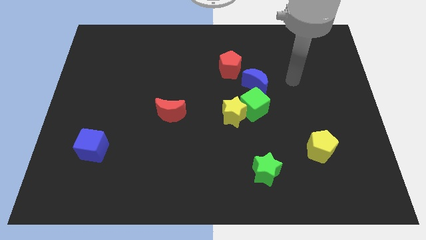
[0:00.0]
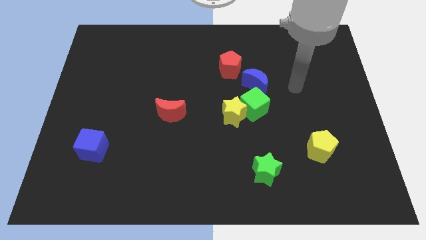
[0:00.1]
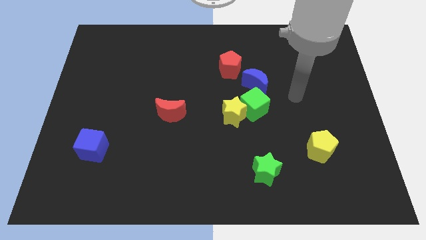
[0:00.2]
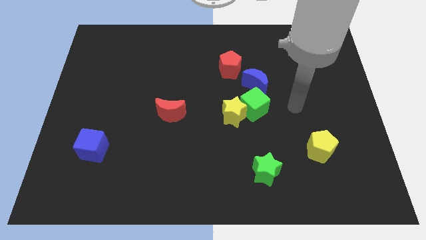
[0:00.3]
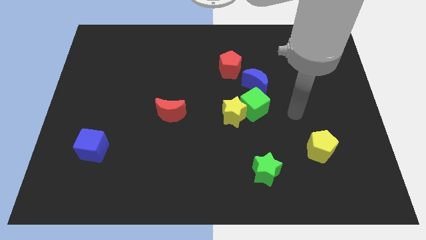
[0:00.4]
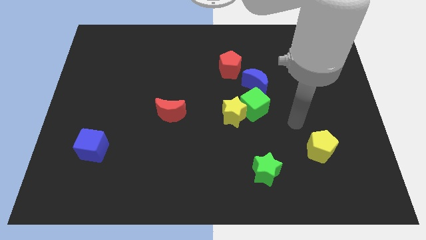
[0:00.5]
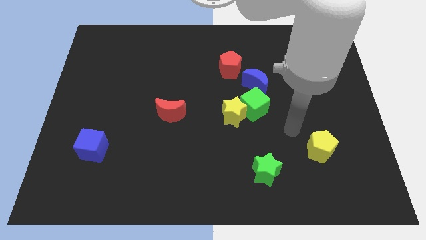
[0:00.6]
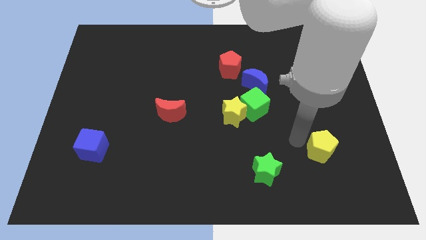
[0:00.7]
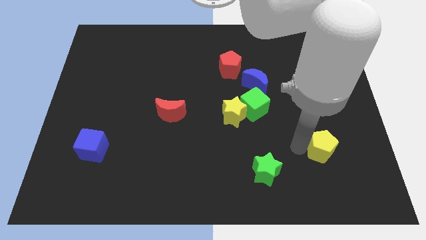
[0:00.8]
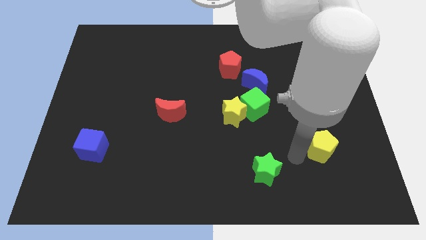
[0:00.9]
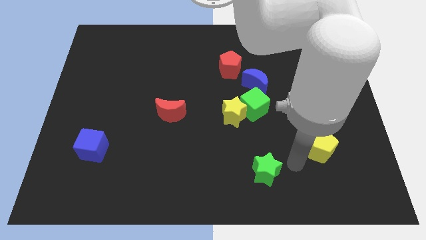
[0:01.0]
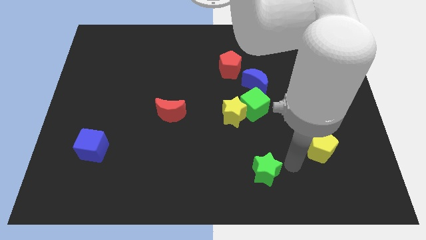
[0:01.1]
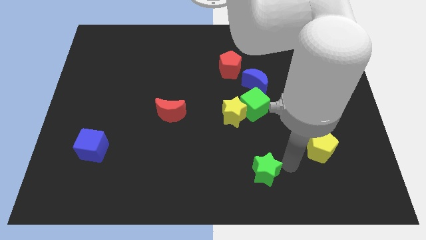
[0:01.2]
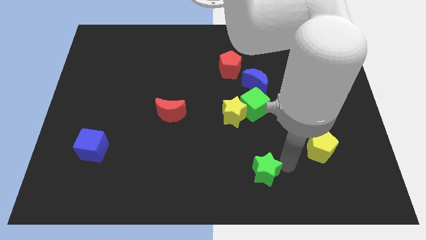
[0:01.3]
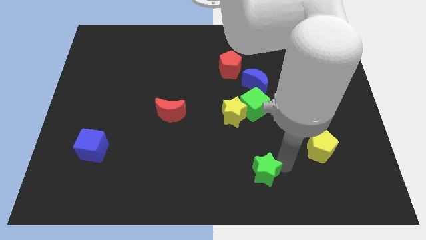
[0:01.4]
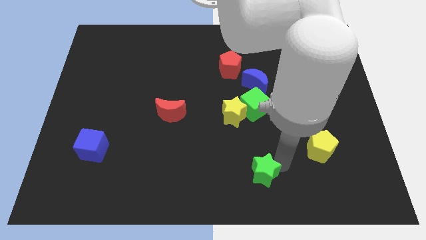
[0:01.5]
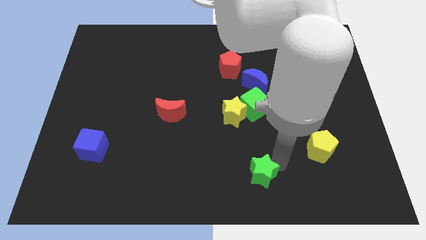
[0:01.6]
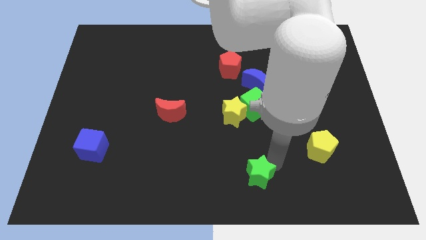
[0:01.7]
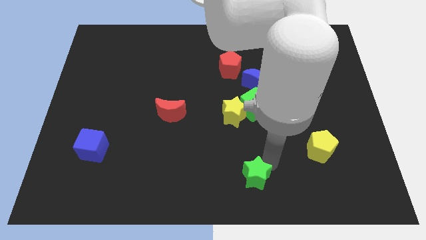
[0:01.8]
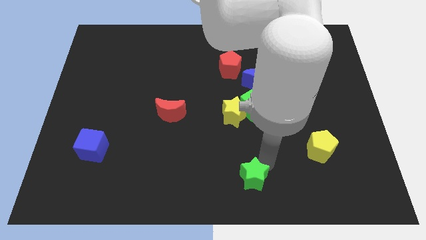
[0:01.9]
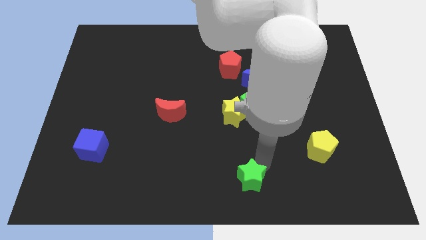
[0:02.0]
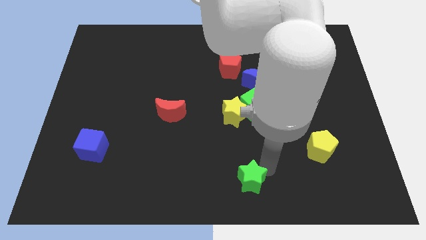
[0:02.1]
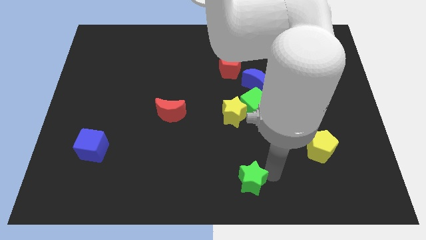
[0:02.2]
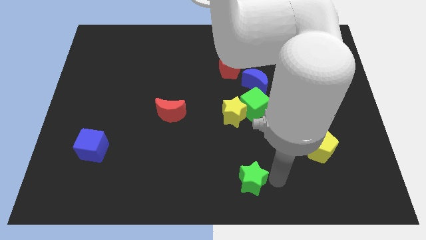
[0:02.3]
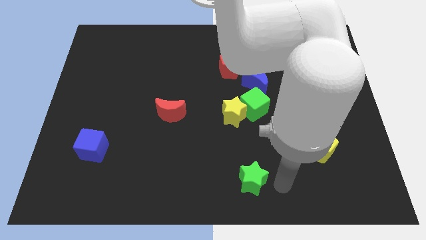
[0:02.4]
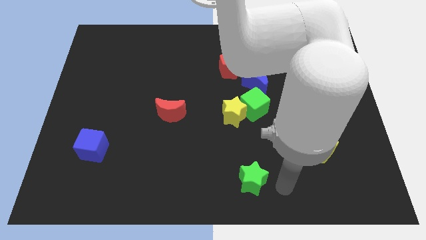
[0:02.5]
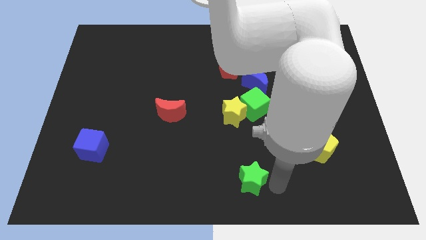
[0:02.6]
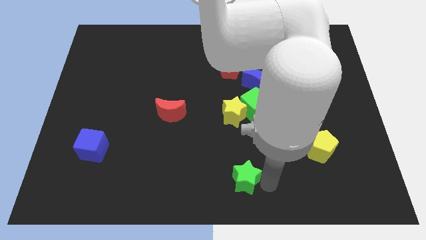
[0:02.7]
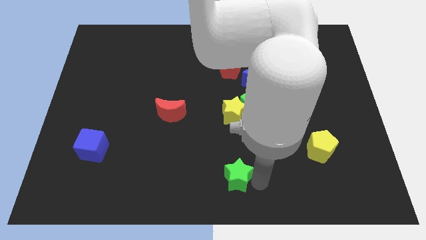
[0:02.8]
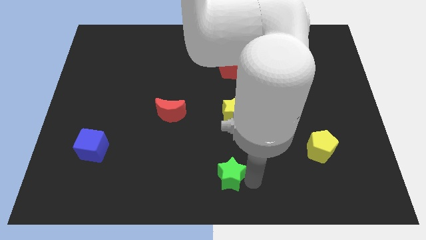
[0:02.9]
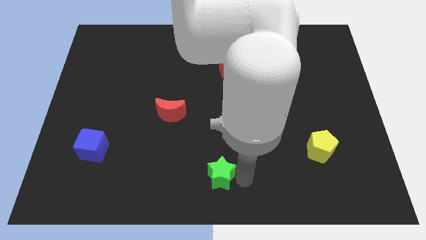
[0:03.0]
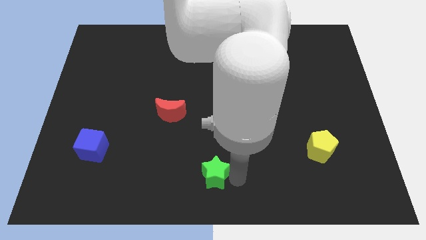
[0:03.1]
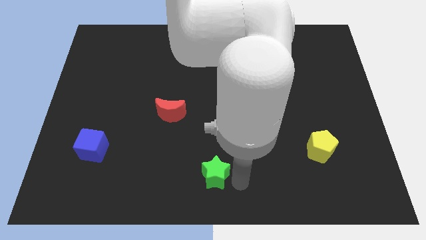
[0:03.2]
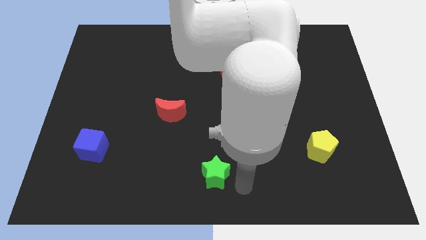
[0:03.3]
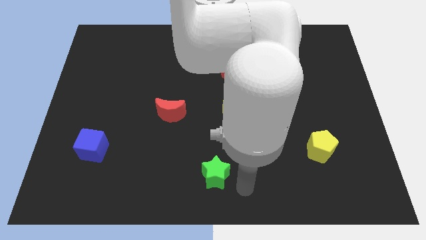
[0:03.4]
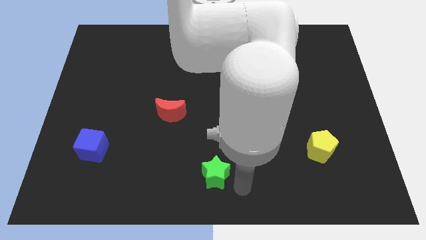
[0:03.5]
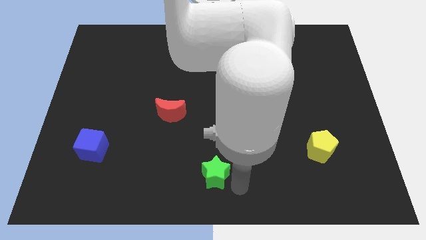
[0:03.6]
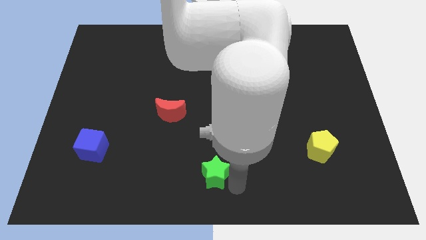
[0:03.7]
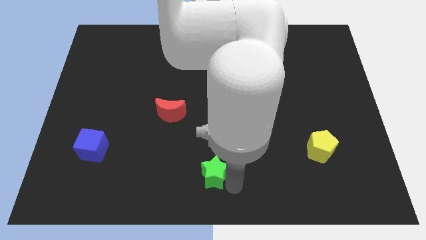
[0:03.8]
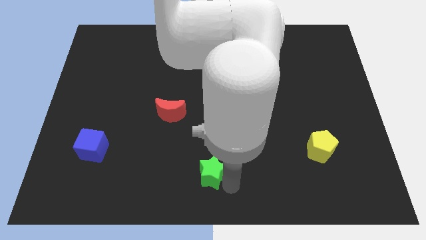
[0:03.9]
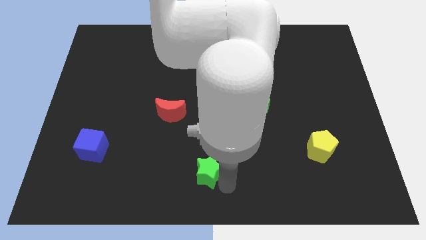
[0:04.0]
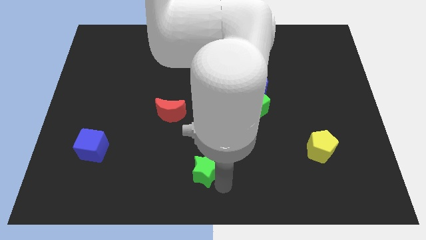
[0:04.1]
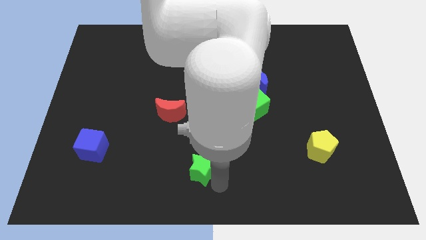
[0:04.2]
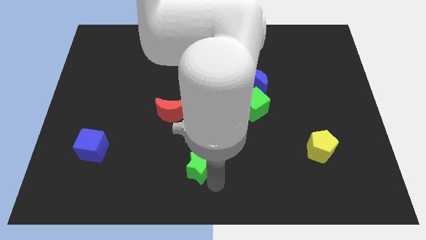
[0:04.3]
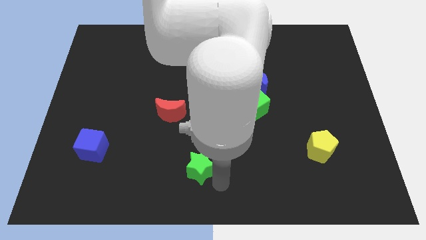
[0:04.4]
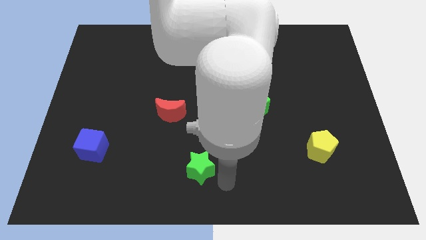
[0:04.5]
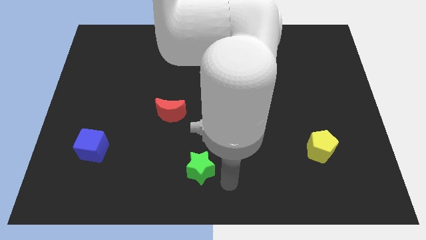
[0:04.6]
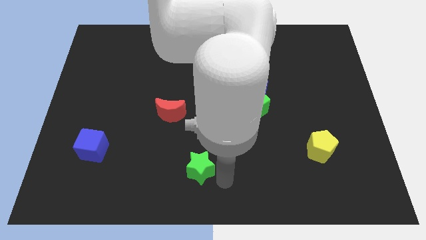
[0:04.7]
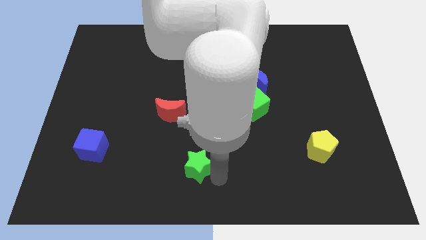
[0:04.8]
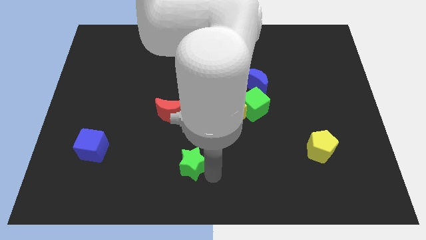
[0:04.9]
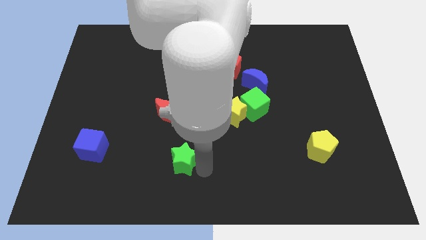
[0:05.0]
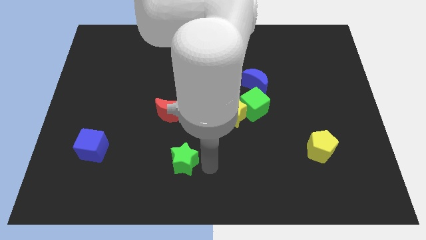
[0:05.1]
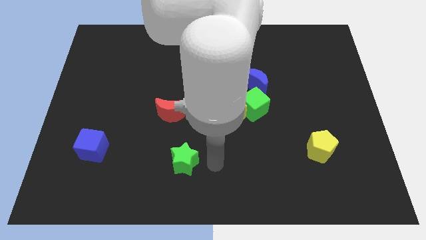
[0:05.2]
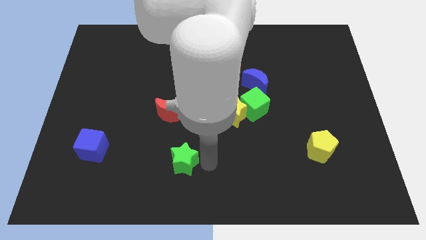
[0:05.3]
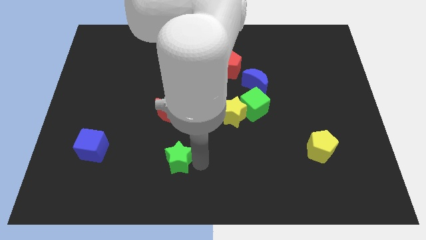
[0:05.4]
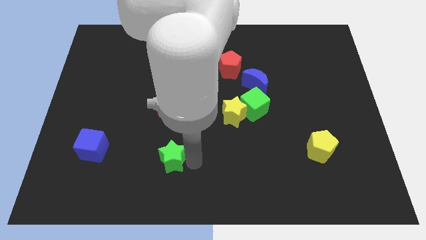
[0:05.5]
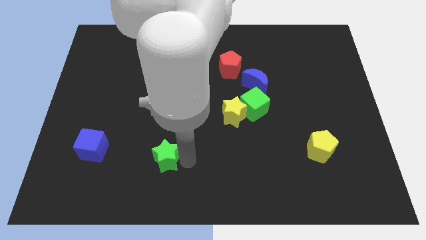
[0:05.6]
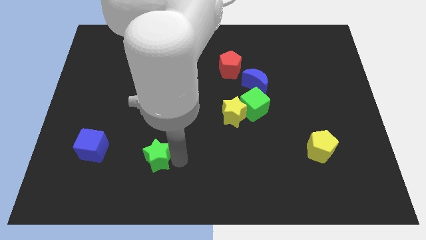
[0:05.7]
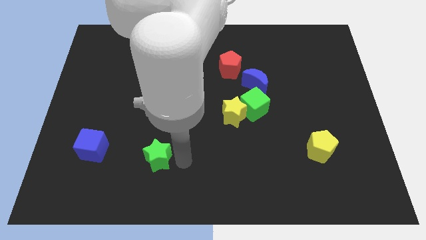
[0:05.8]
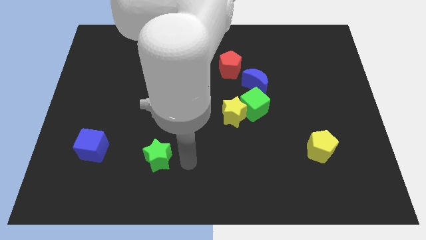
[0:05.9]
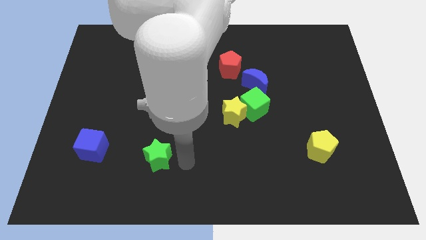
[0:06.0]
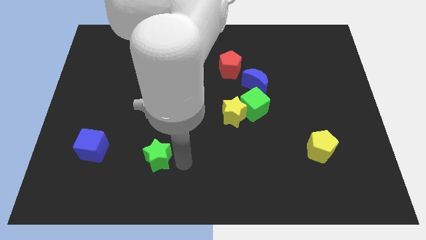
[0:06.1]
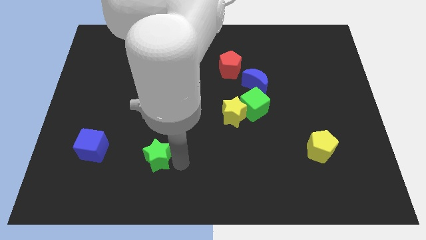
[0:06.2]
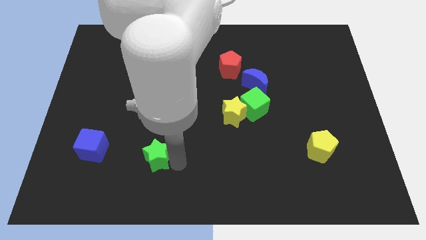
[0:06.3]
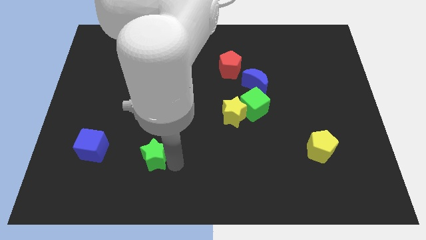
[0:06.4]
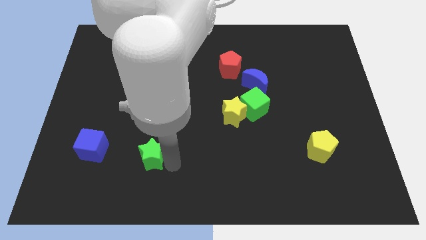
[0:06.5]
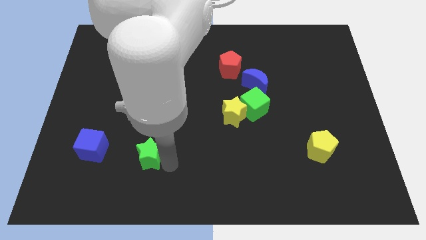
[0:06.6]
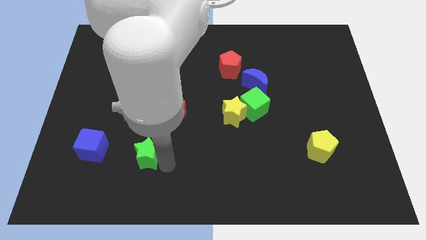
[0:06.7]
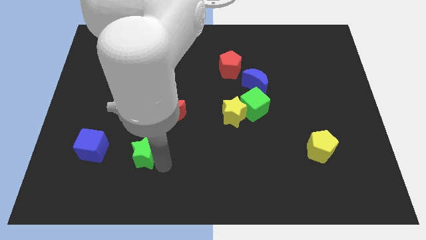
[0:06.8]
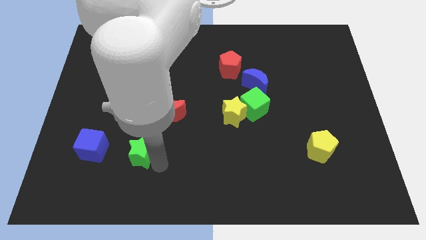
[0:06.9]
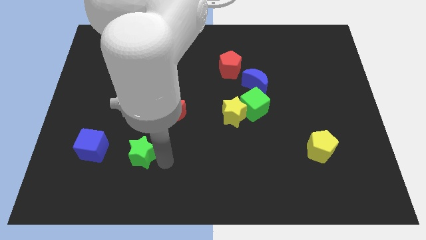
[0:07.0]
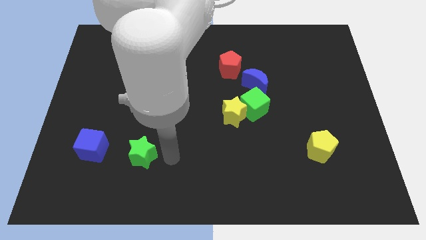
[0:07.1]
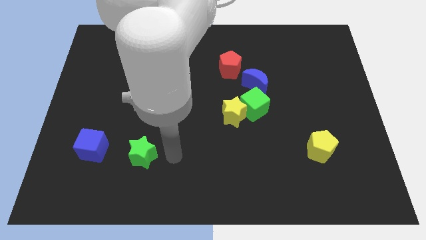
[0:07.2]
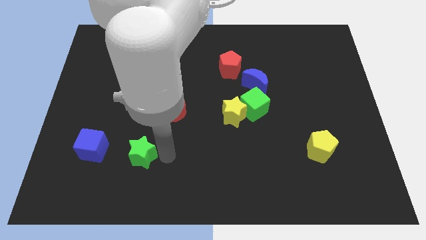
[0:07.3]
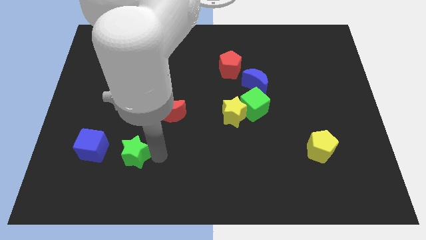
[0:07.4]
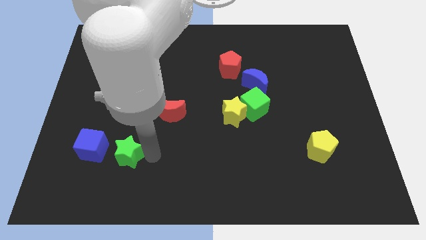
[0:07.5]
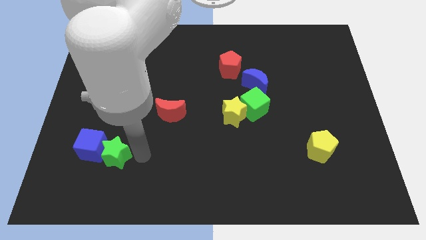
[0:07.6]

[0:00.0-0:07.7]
push the green star close to the blue cube
